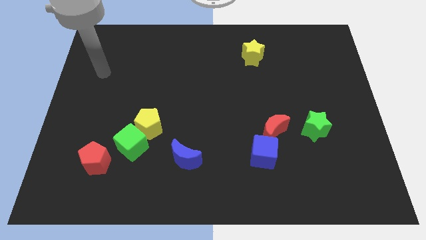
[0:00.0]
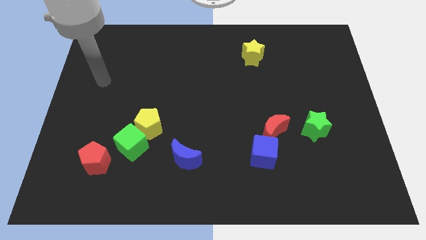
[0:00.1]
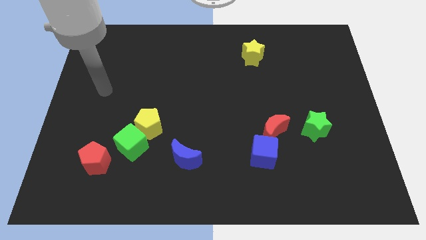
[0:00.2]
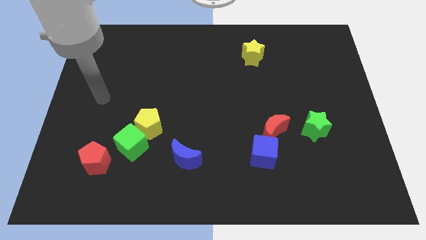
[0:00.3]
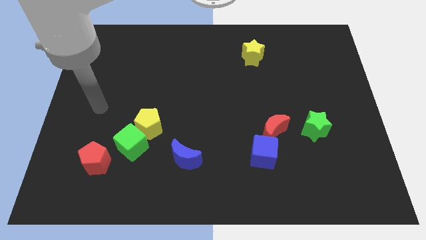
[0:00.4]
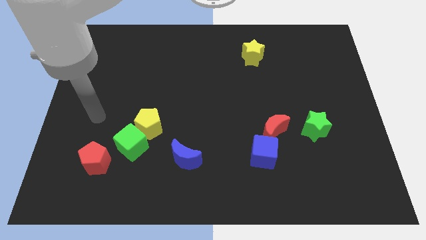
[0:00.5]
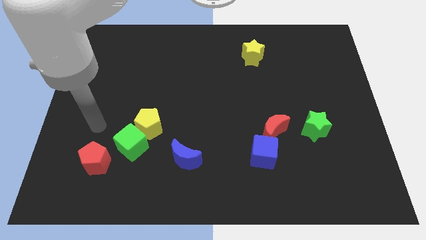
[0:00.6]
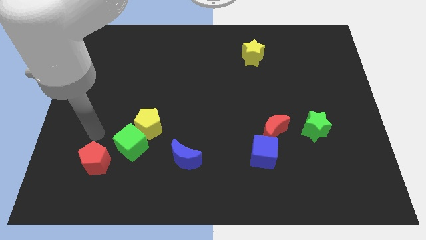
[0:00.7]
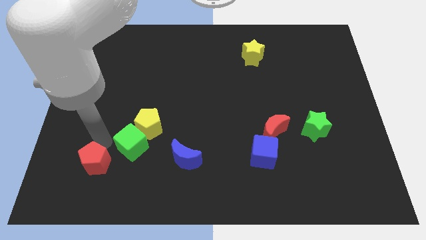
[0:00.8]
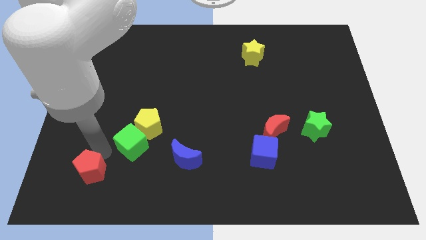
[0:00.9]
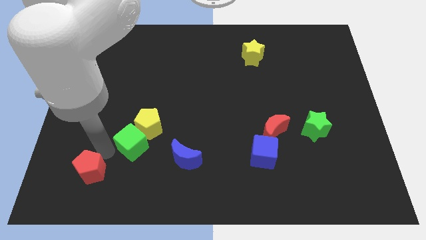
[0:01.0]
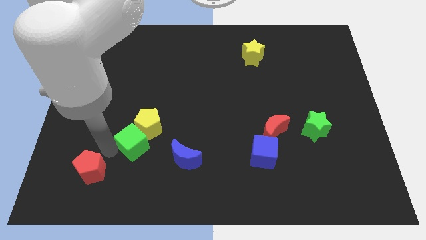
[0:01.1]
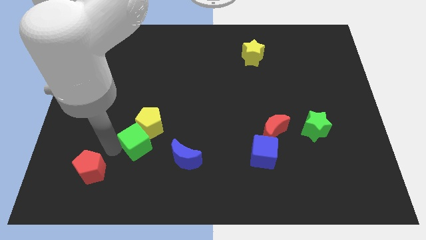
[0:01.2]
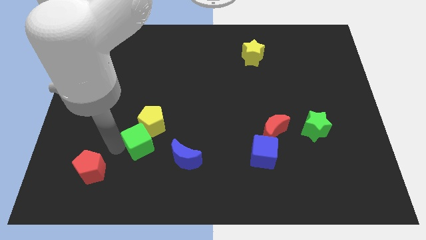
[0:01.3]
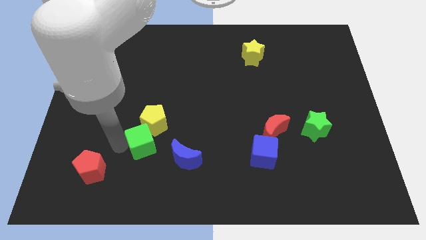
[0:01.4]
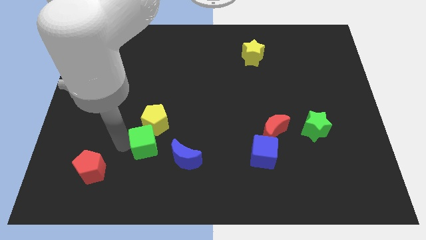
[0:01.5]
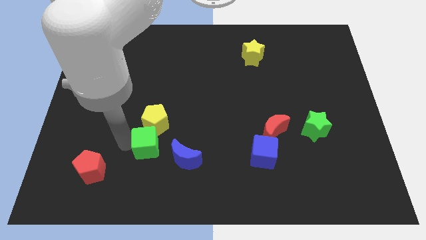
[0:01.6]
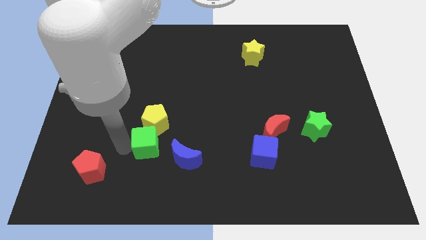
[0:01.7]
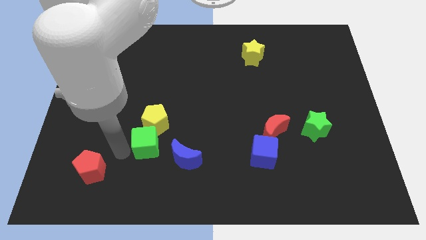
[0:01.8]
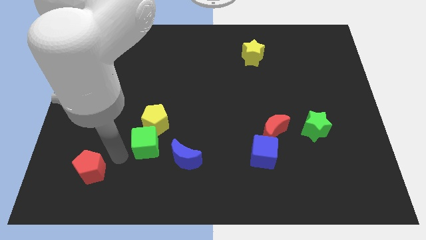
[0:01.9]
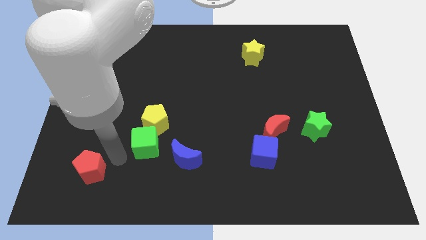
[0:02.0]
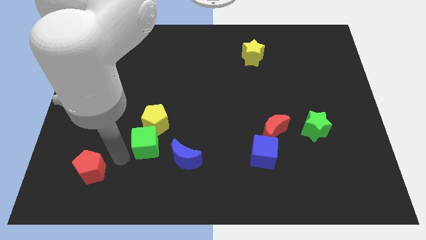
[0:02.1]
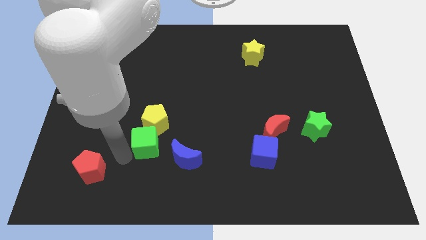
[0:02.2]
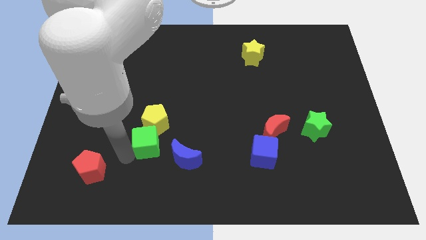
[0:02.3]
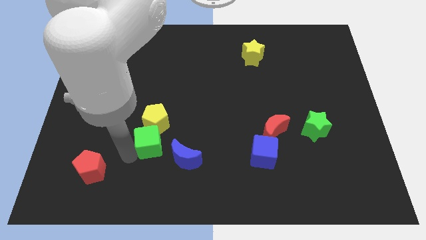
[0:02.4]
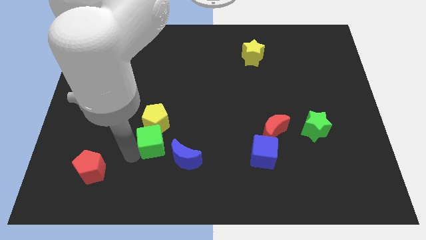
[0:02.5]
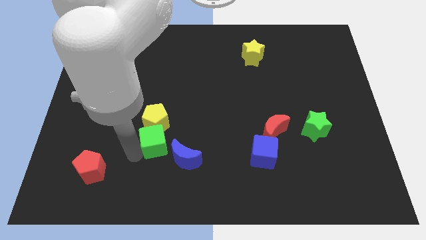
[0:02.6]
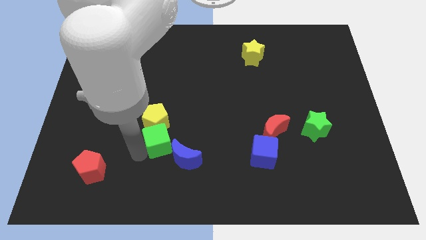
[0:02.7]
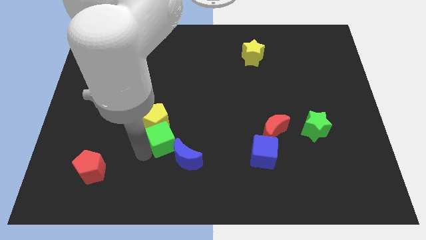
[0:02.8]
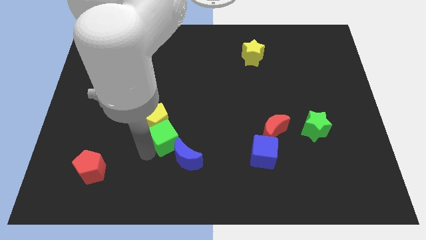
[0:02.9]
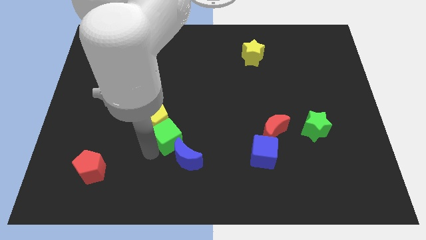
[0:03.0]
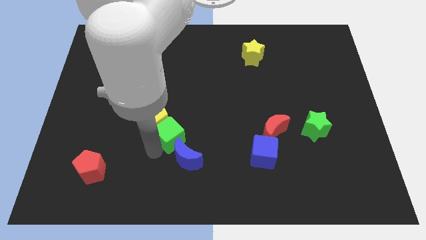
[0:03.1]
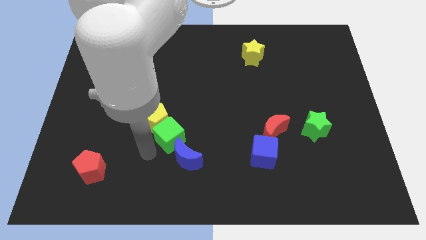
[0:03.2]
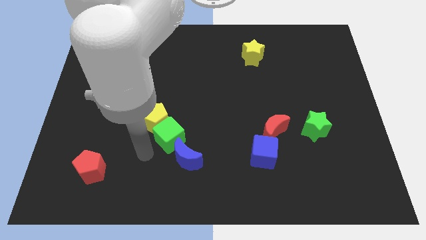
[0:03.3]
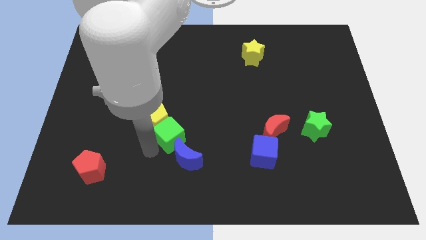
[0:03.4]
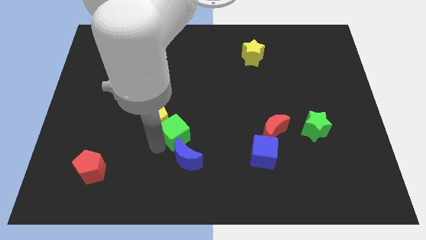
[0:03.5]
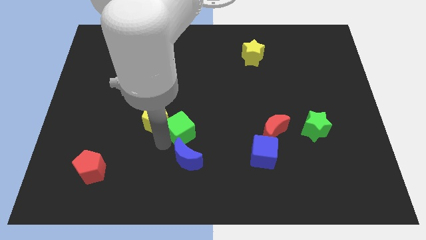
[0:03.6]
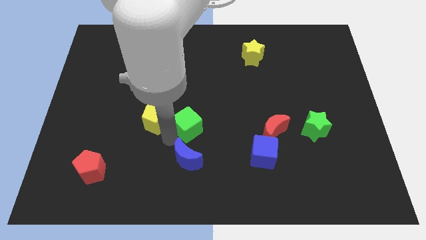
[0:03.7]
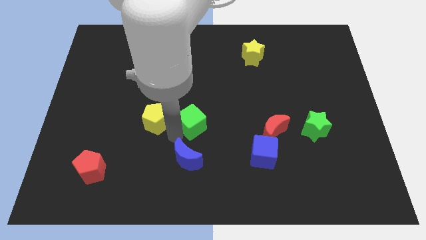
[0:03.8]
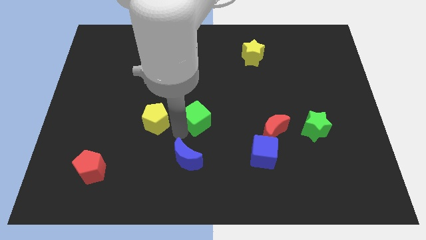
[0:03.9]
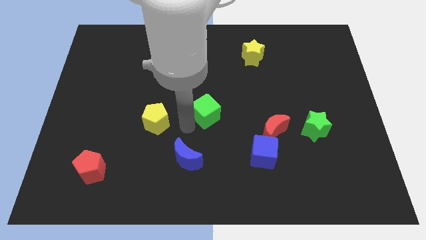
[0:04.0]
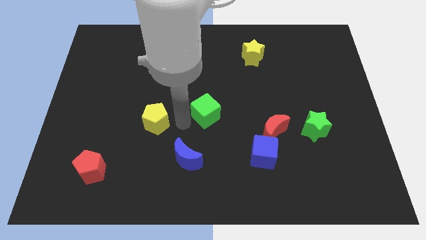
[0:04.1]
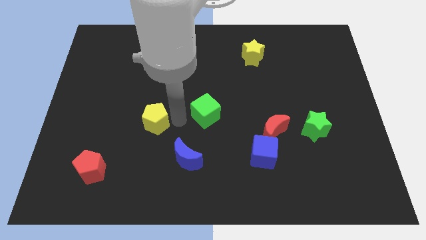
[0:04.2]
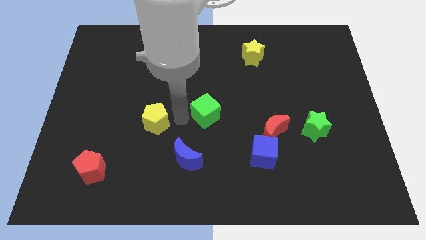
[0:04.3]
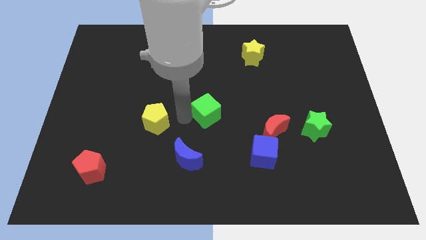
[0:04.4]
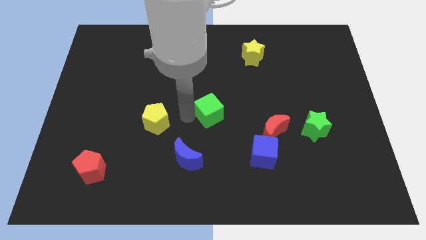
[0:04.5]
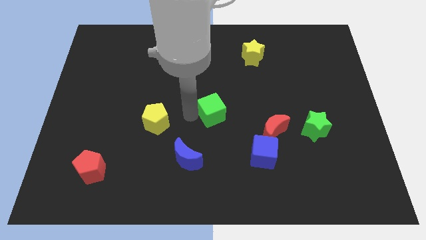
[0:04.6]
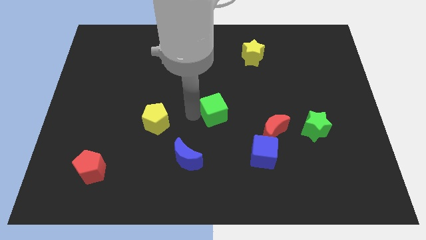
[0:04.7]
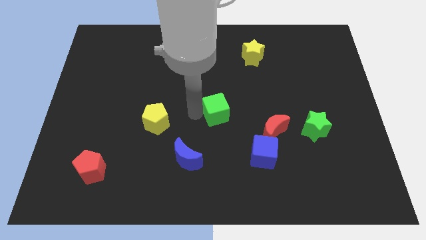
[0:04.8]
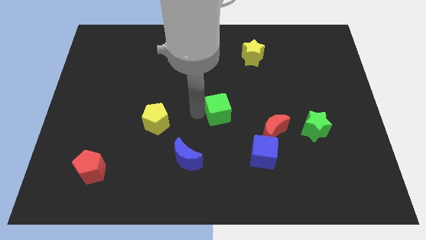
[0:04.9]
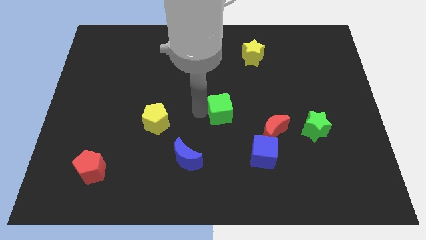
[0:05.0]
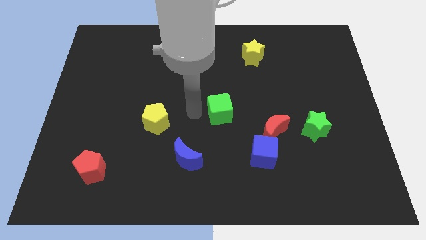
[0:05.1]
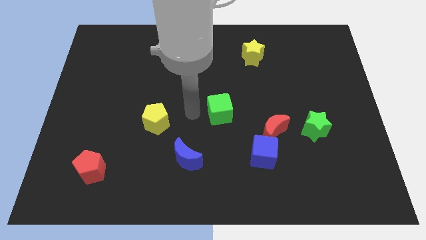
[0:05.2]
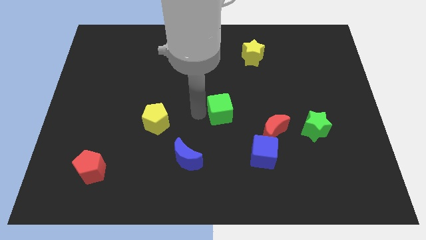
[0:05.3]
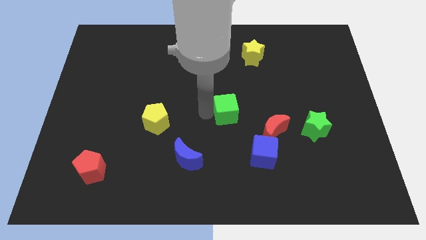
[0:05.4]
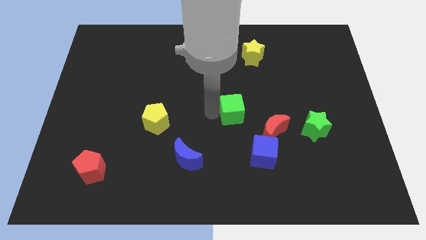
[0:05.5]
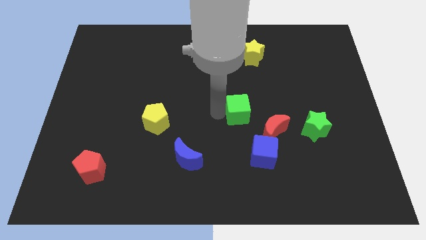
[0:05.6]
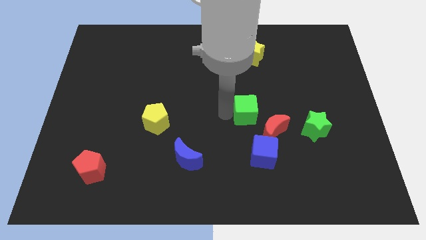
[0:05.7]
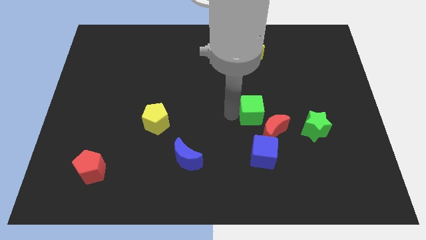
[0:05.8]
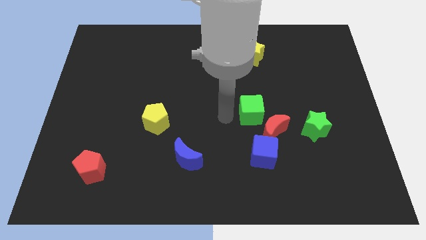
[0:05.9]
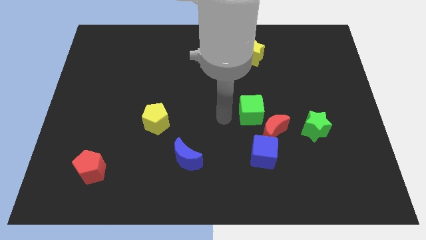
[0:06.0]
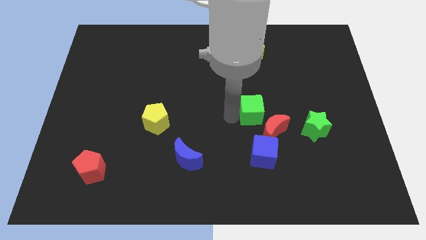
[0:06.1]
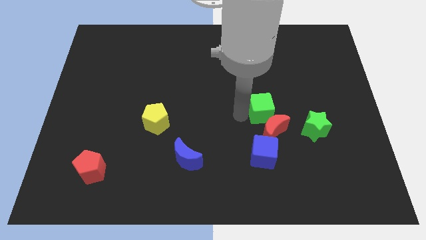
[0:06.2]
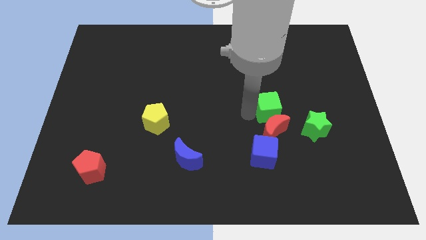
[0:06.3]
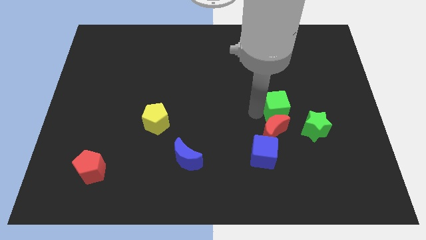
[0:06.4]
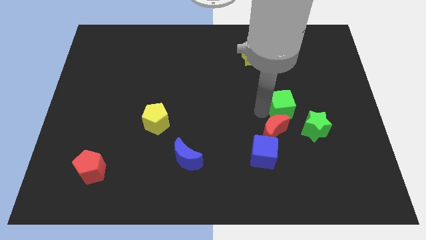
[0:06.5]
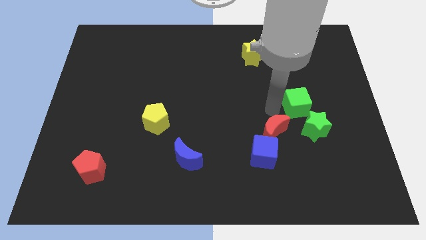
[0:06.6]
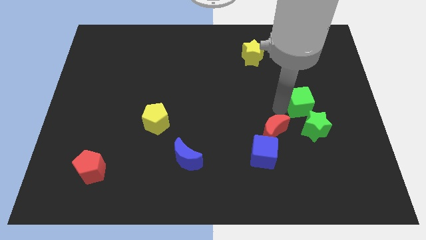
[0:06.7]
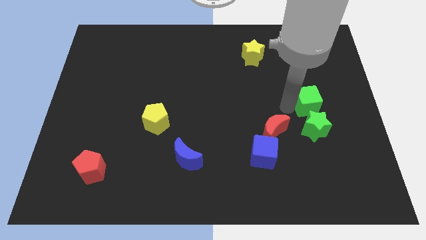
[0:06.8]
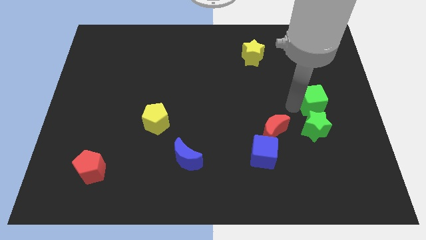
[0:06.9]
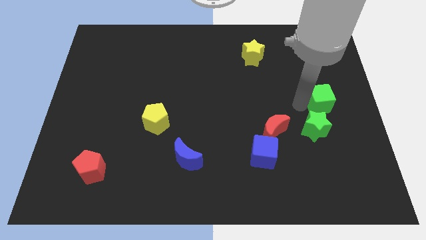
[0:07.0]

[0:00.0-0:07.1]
put the green cube to the center right

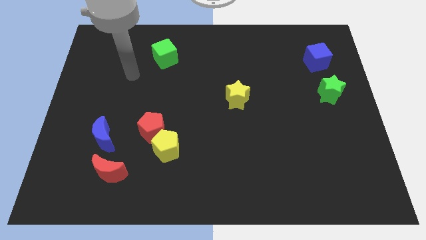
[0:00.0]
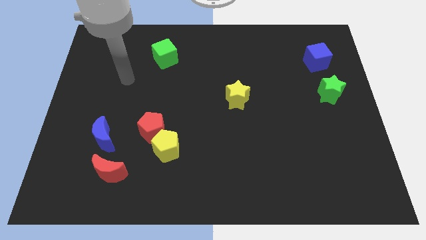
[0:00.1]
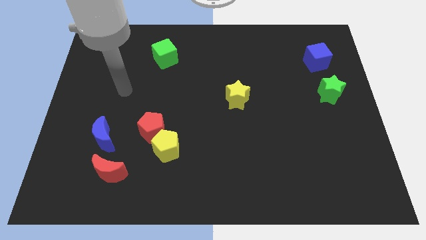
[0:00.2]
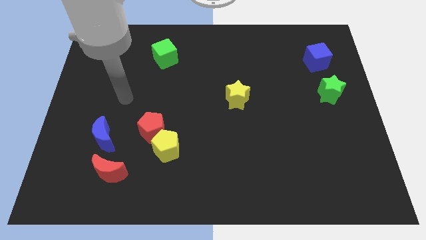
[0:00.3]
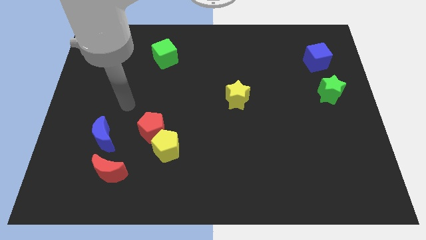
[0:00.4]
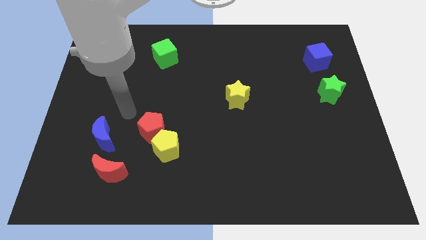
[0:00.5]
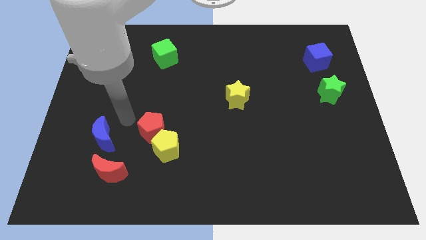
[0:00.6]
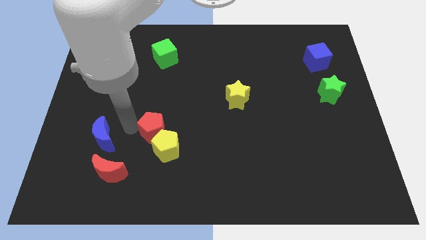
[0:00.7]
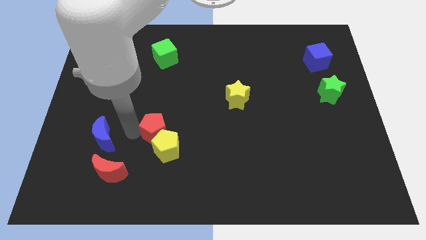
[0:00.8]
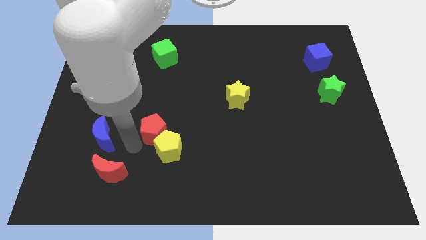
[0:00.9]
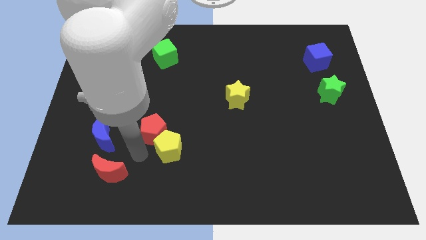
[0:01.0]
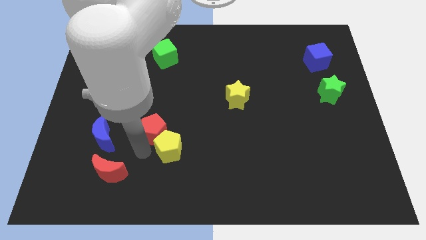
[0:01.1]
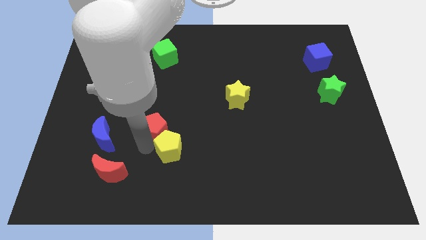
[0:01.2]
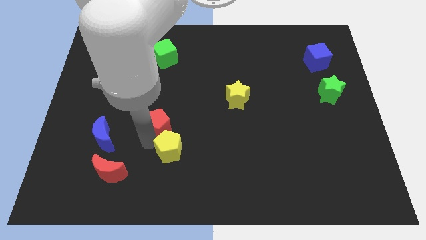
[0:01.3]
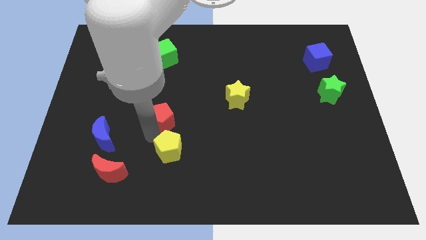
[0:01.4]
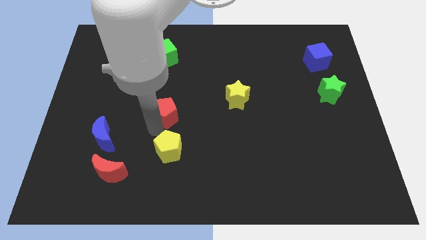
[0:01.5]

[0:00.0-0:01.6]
push the red pentagon to the middle of the board
